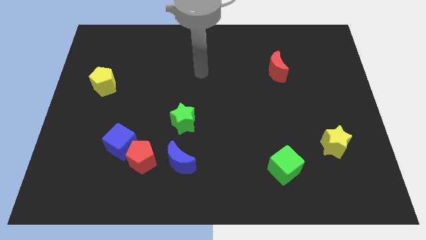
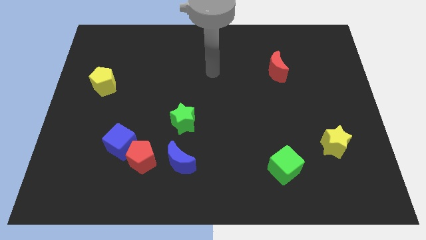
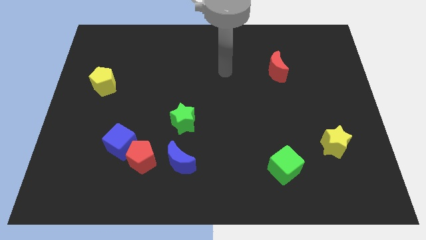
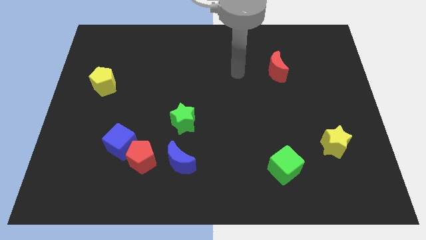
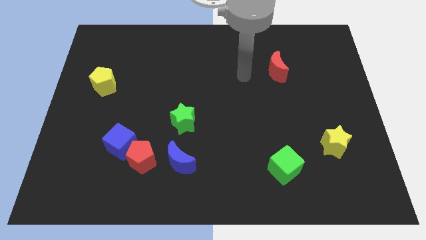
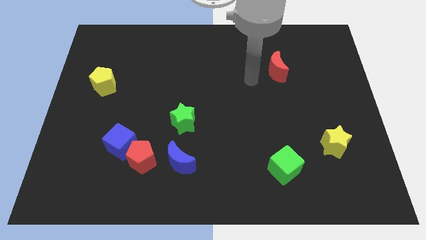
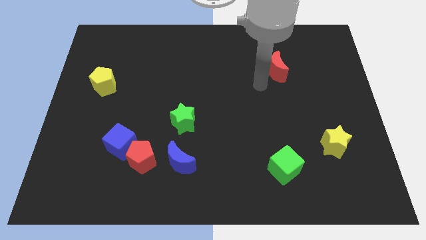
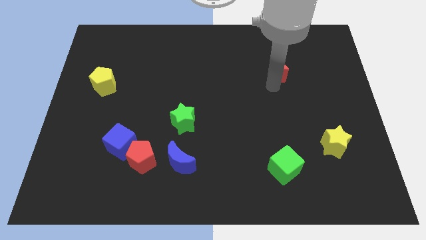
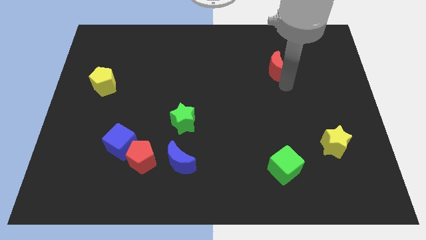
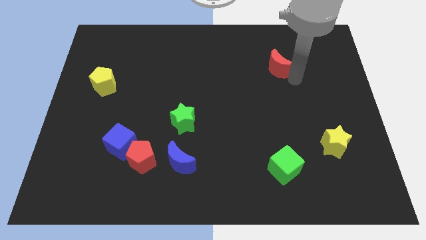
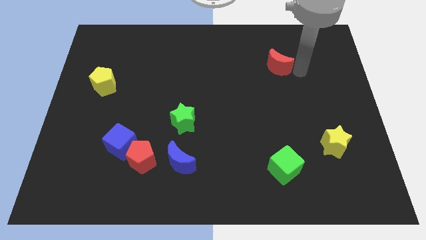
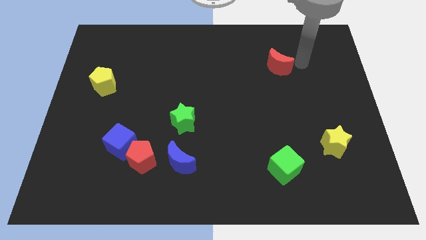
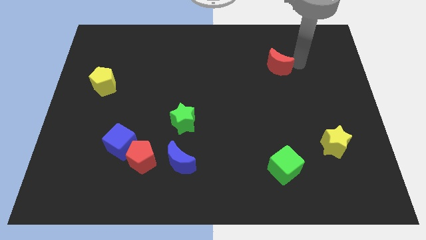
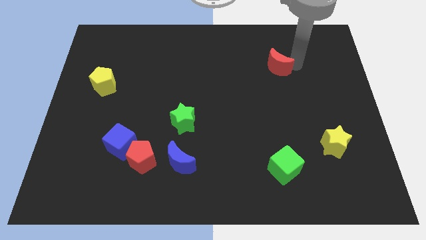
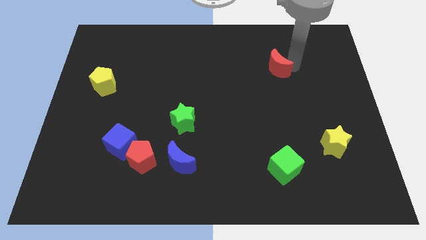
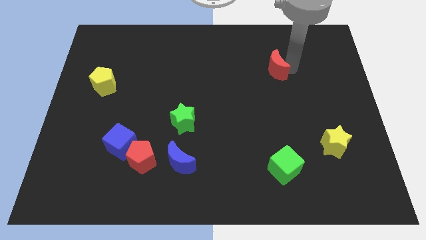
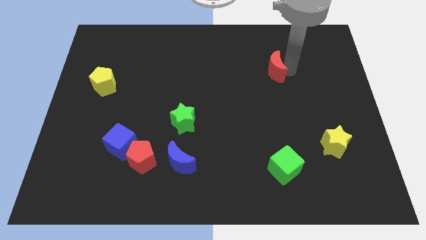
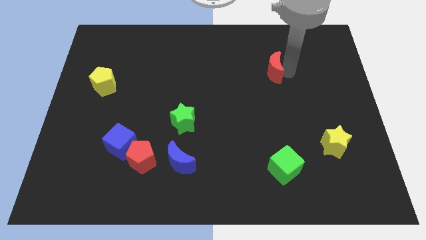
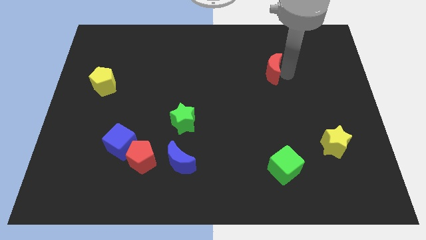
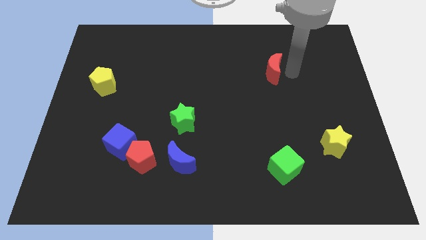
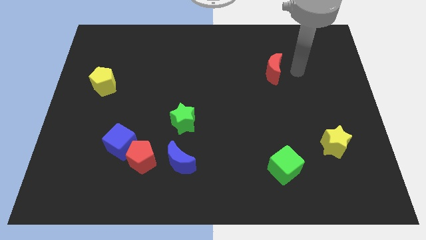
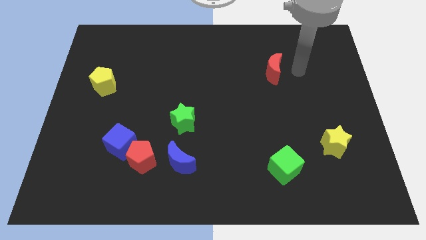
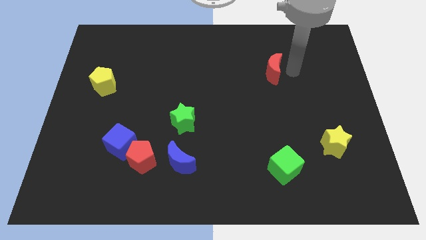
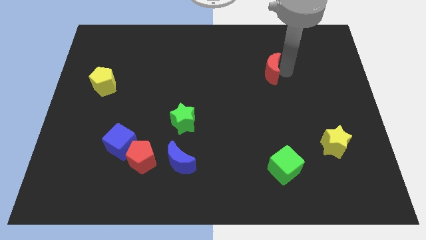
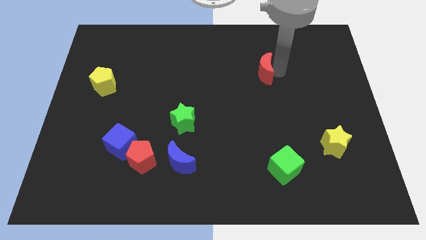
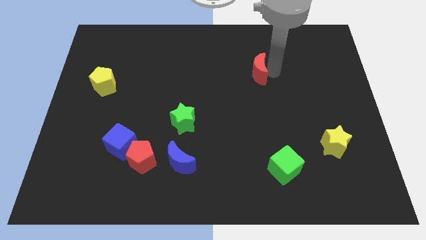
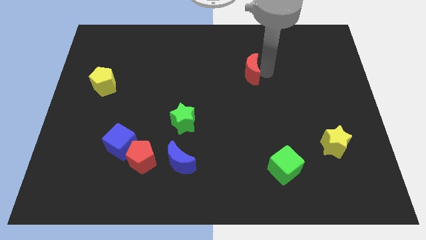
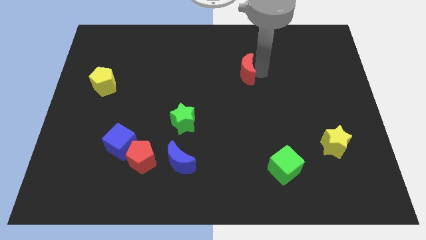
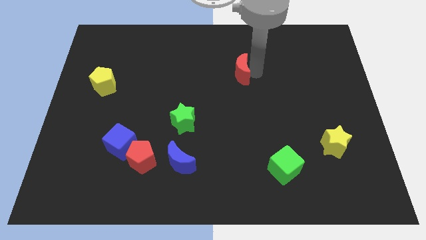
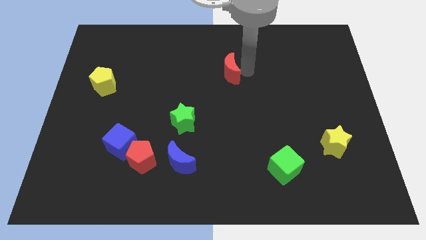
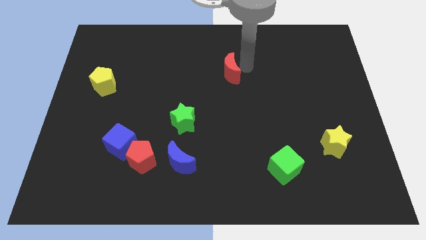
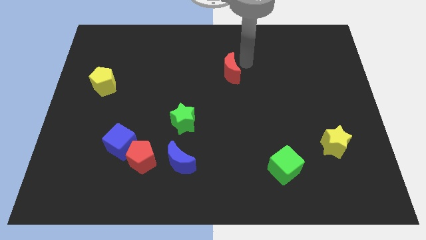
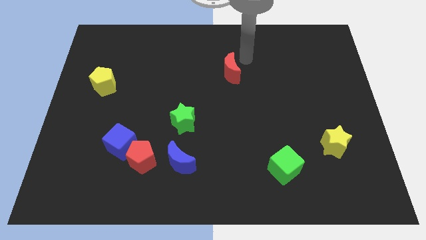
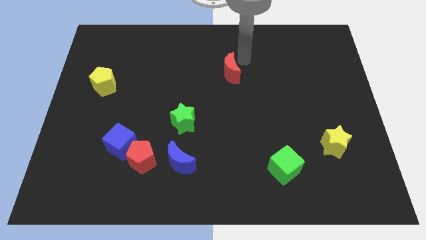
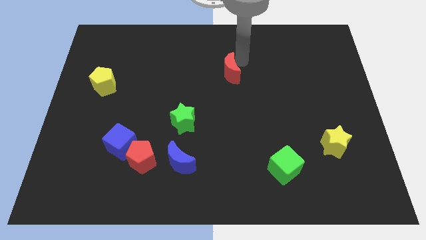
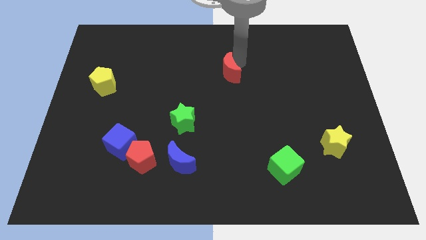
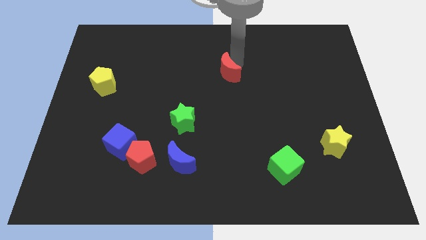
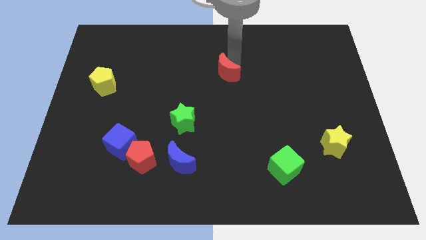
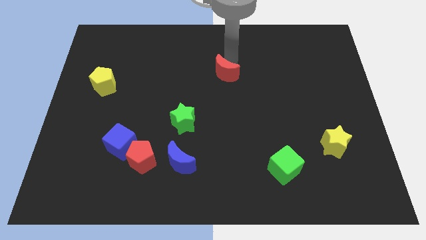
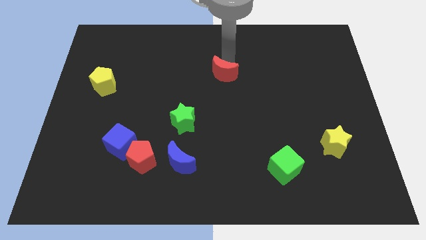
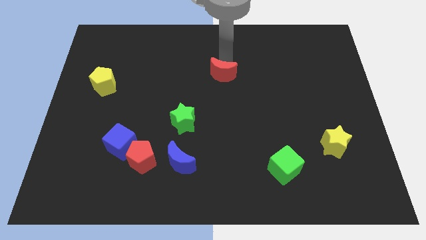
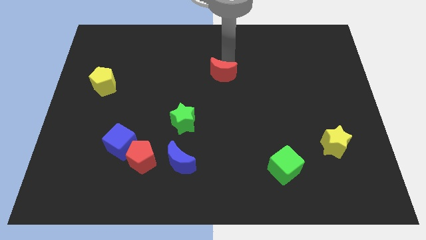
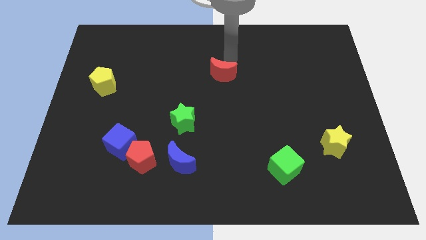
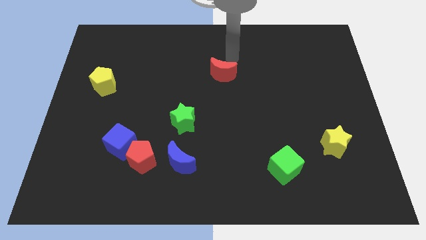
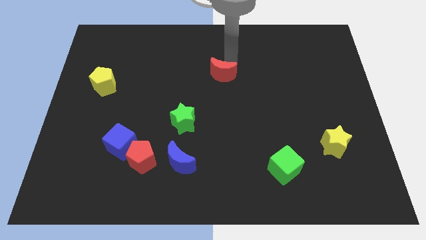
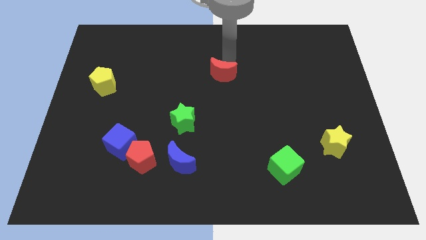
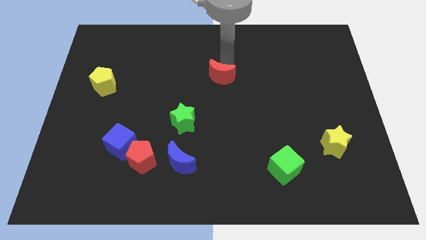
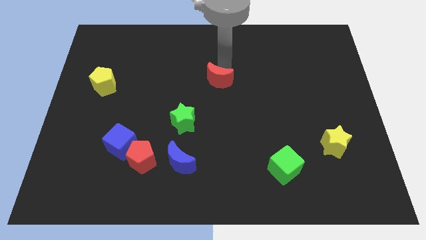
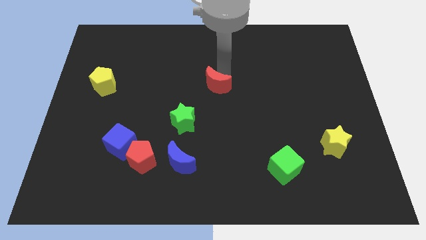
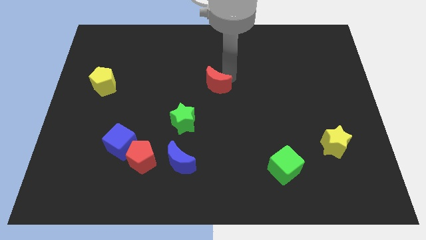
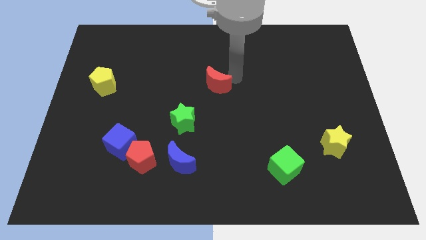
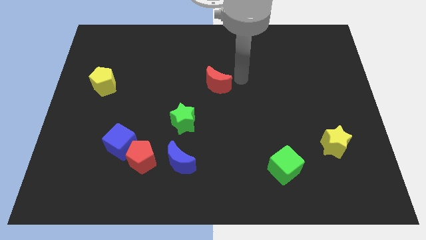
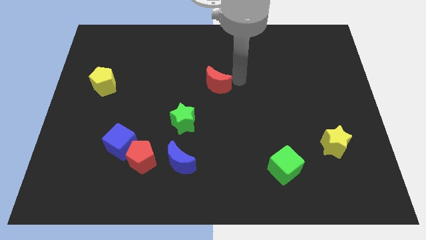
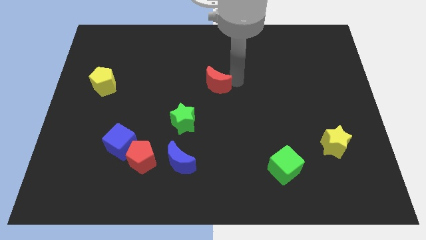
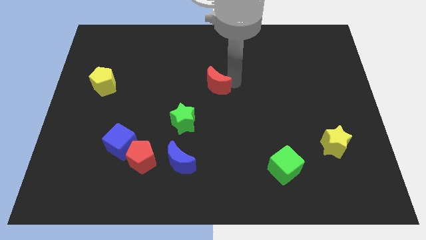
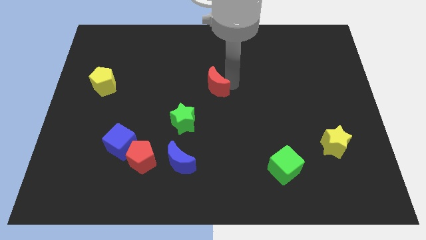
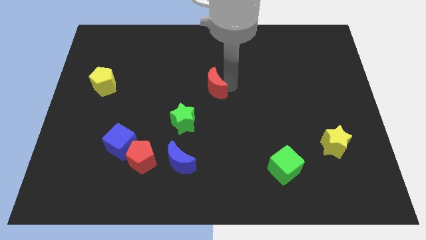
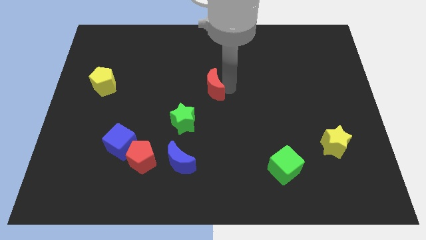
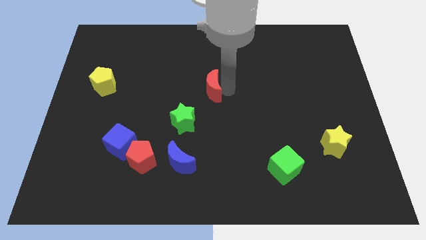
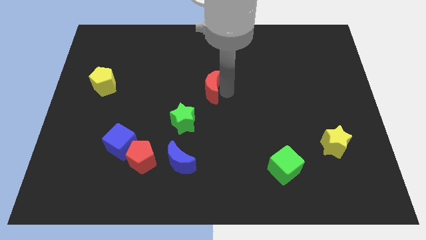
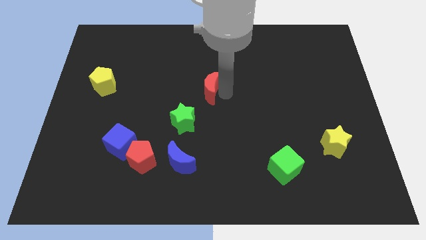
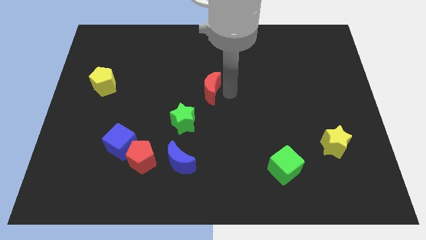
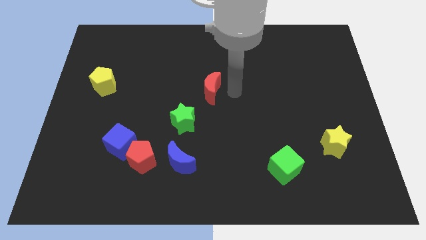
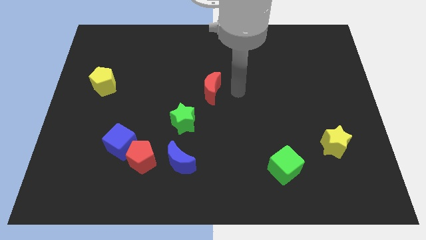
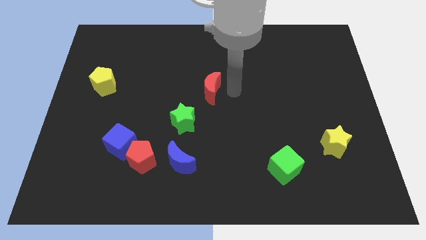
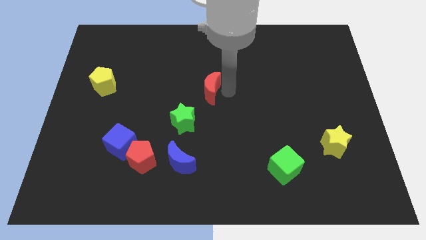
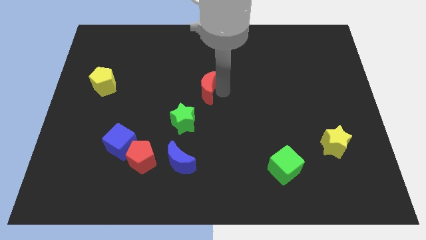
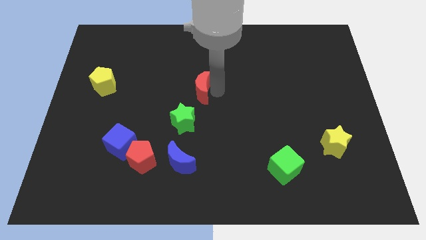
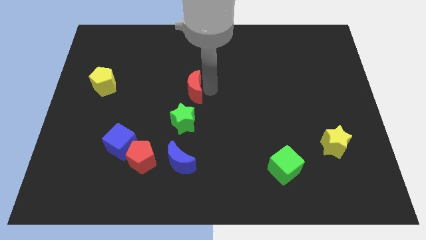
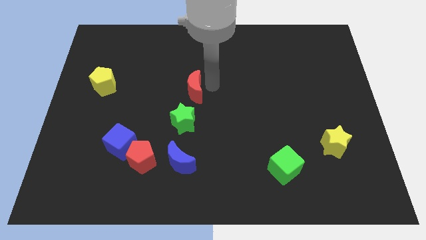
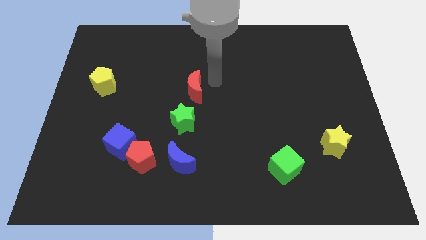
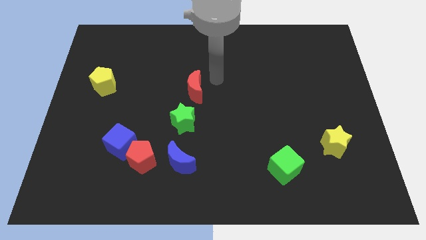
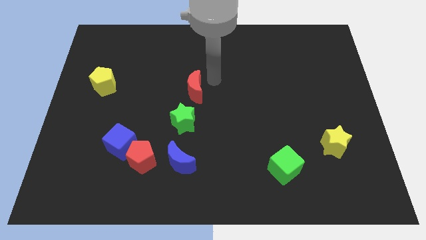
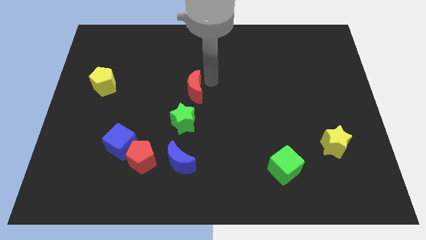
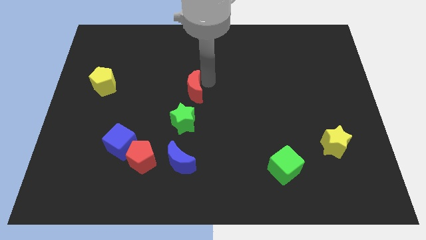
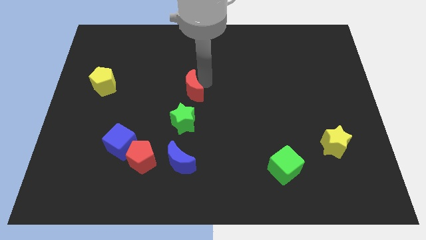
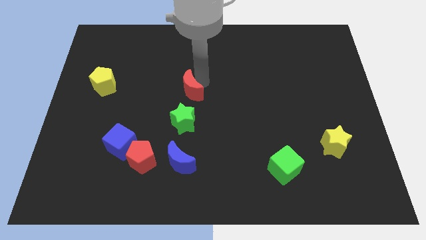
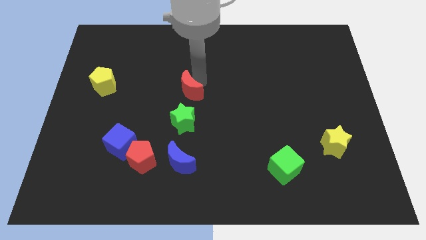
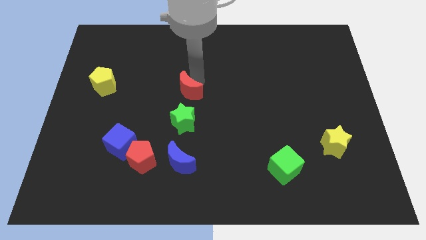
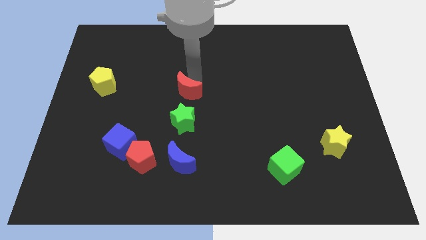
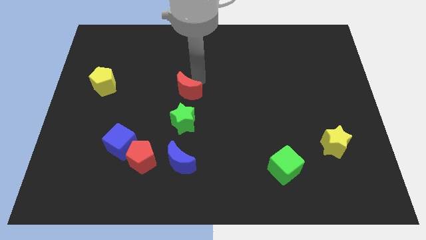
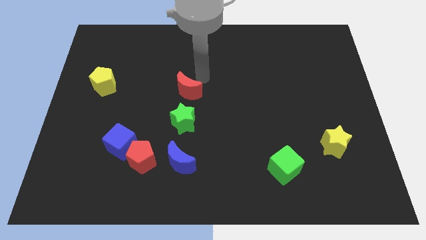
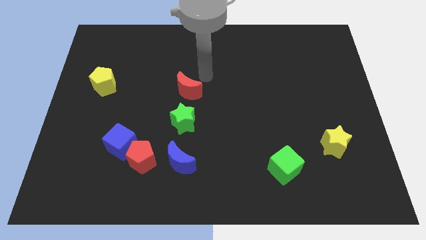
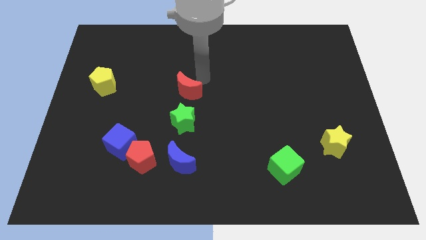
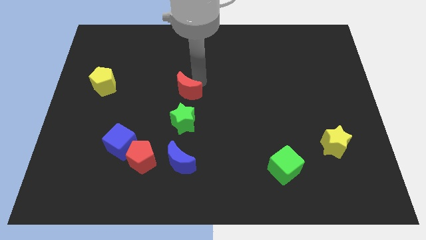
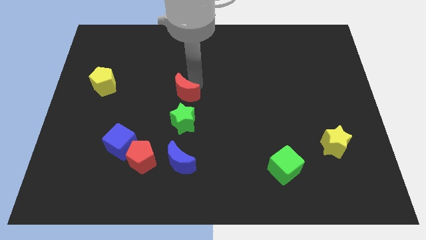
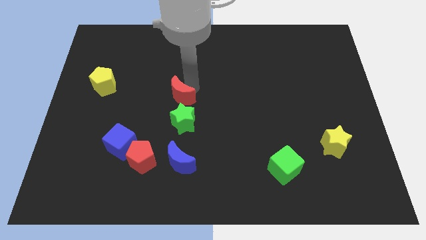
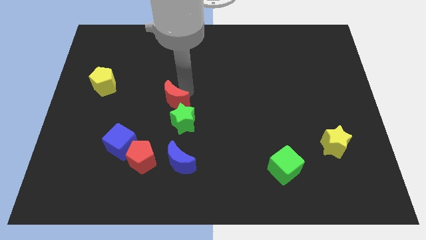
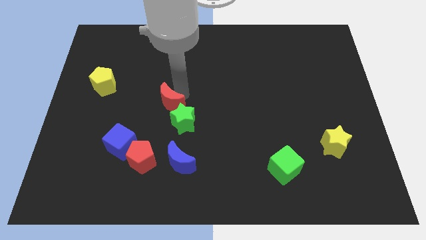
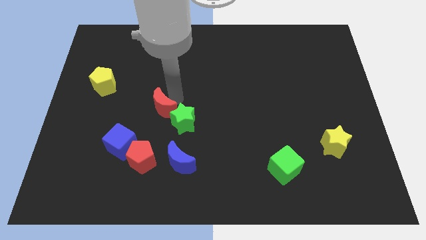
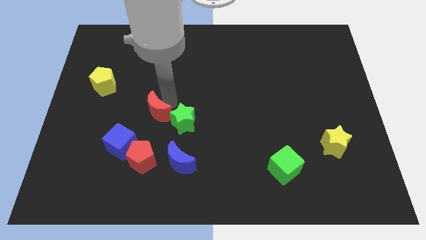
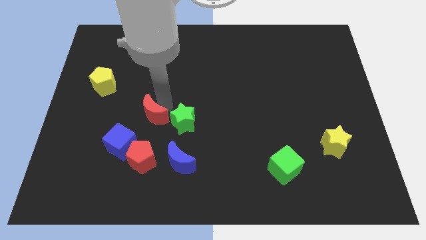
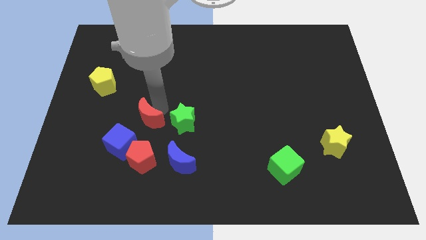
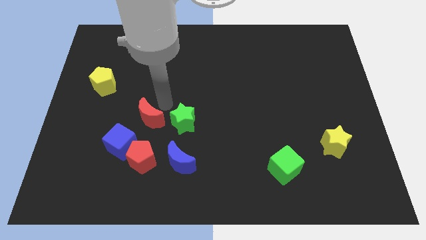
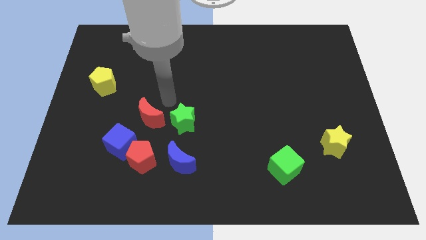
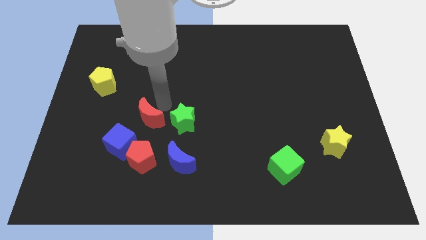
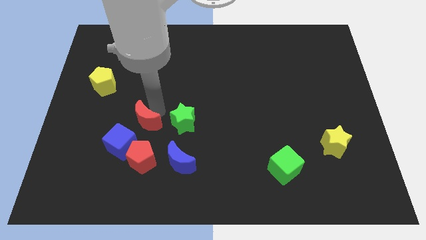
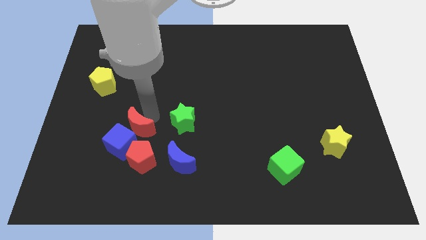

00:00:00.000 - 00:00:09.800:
put the red moon close to the blue cube
